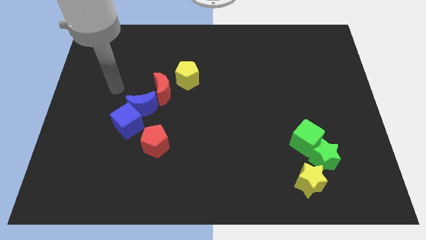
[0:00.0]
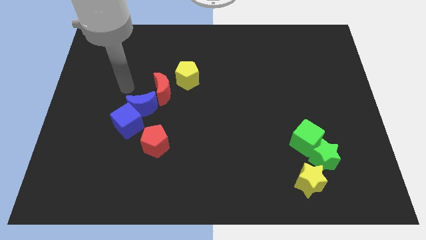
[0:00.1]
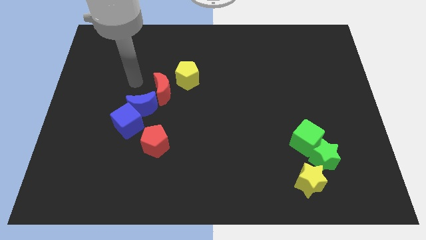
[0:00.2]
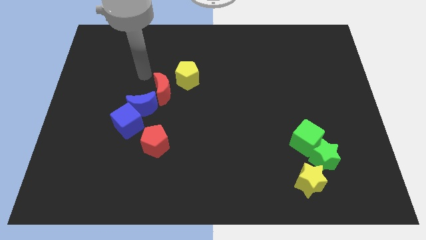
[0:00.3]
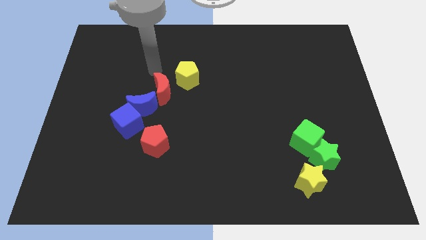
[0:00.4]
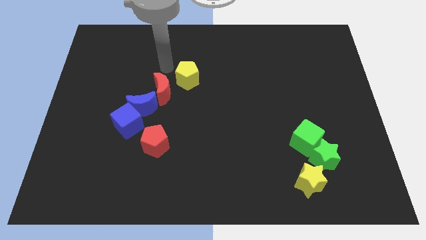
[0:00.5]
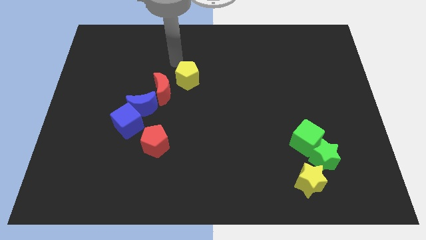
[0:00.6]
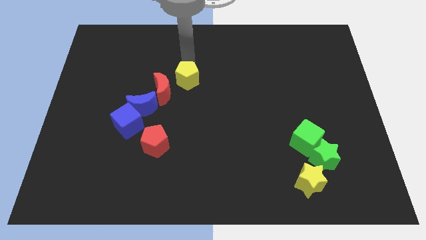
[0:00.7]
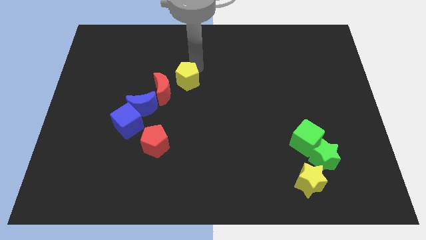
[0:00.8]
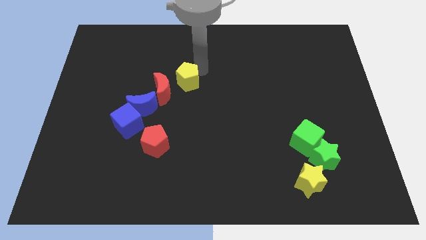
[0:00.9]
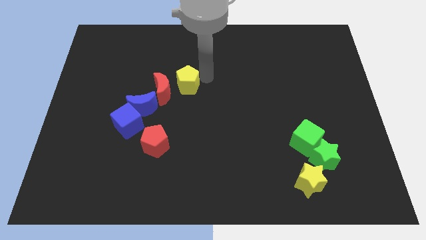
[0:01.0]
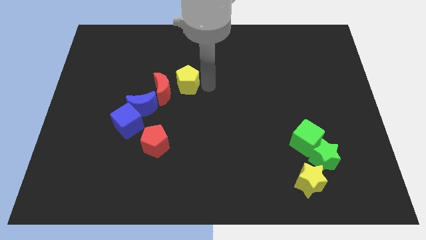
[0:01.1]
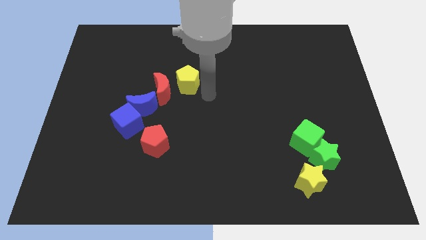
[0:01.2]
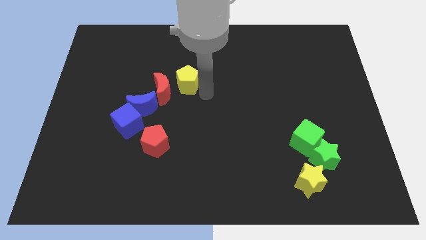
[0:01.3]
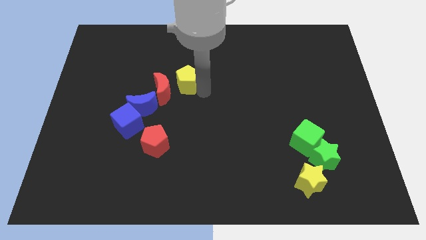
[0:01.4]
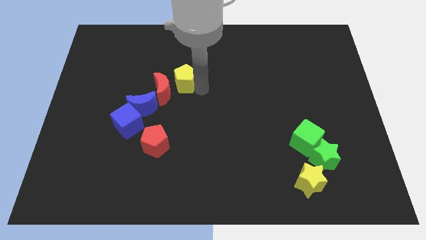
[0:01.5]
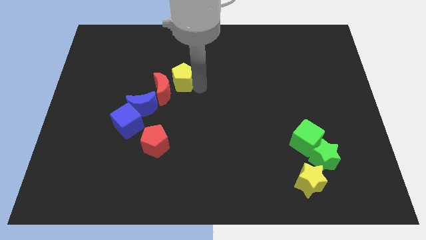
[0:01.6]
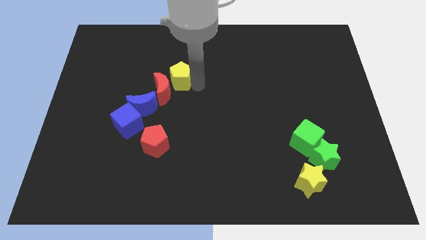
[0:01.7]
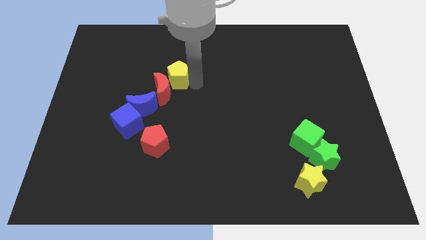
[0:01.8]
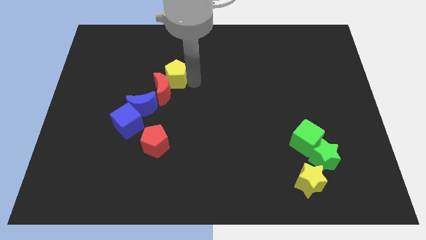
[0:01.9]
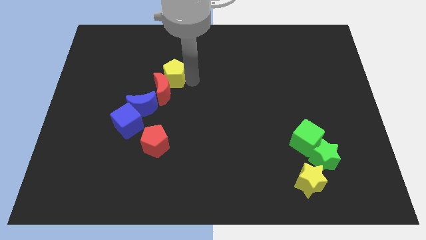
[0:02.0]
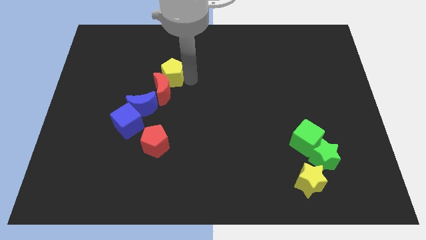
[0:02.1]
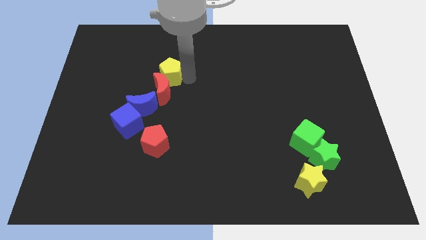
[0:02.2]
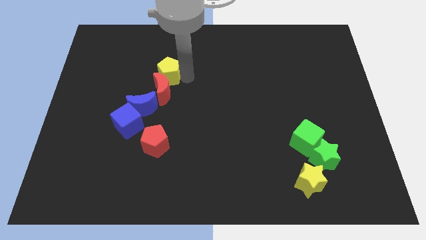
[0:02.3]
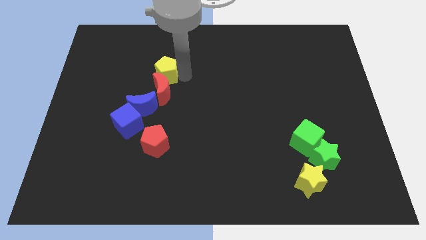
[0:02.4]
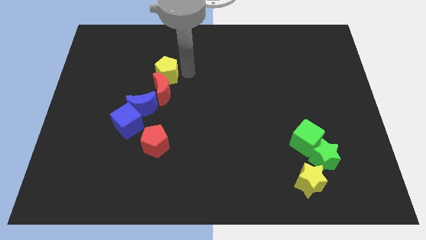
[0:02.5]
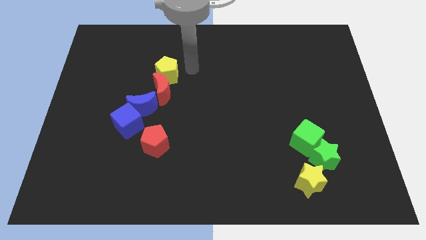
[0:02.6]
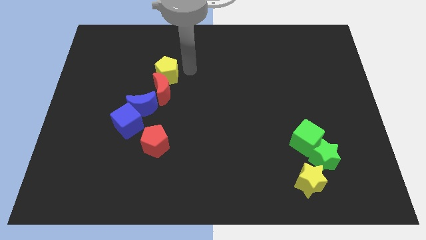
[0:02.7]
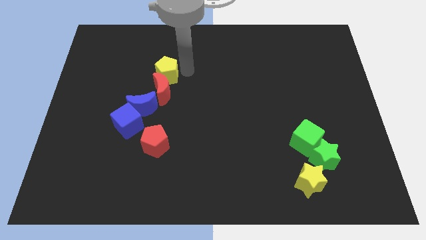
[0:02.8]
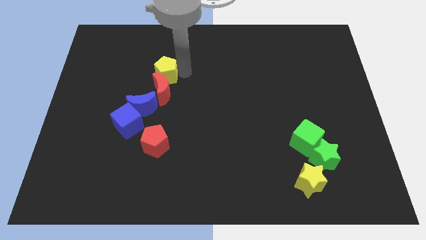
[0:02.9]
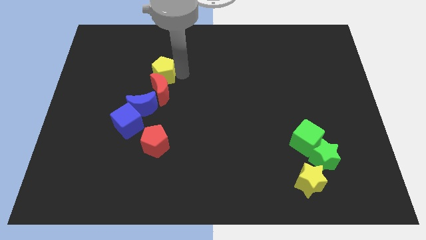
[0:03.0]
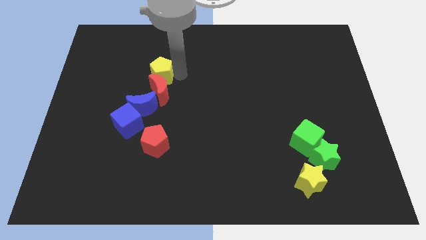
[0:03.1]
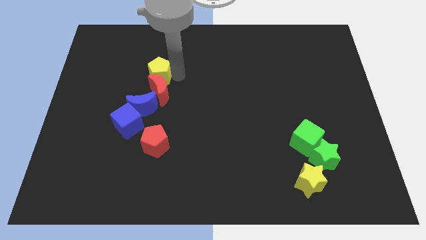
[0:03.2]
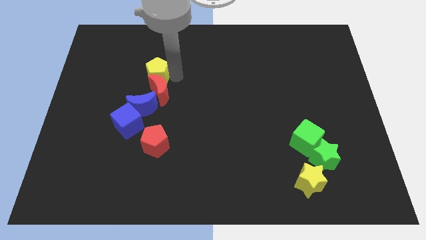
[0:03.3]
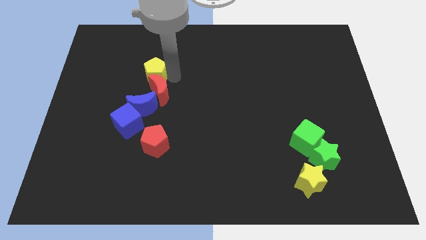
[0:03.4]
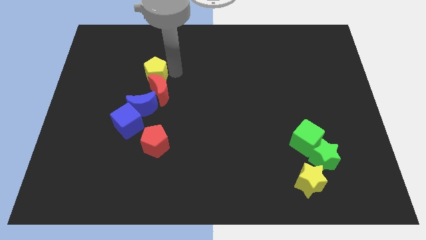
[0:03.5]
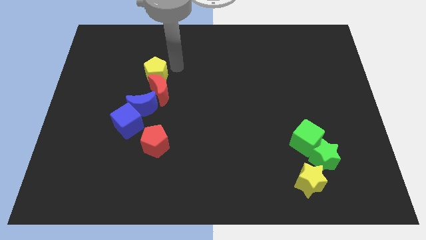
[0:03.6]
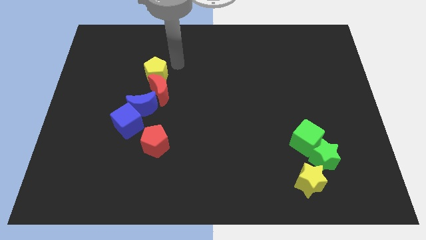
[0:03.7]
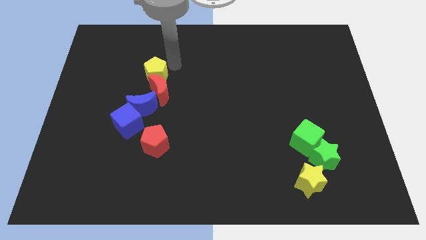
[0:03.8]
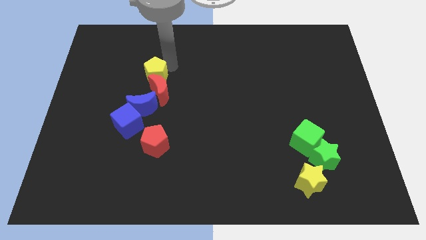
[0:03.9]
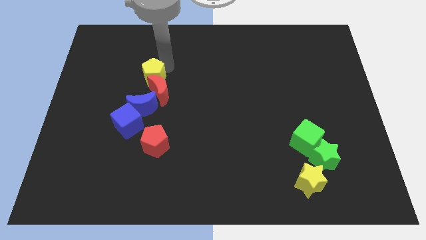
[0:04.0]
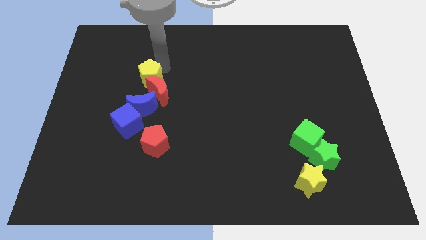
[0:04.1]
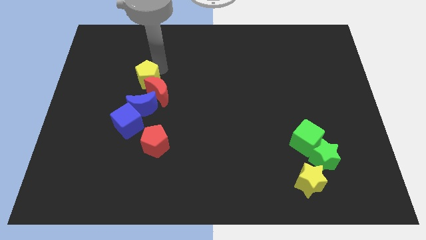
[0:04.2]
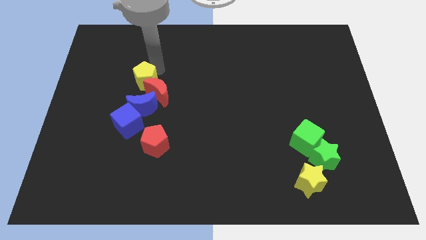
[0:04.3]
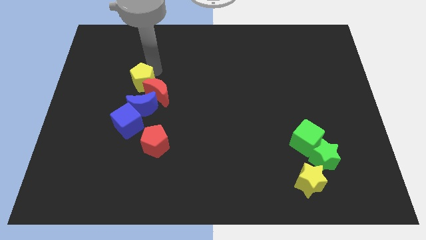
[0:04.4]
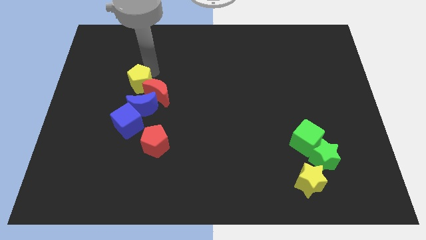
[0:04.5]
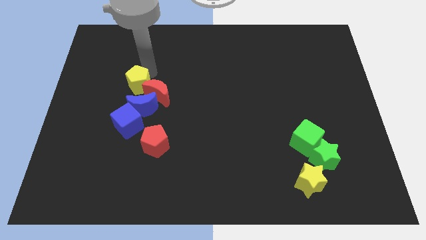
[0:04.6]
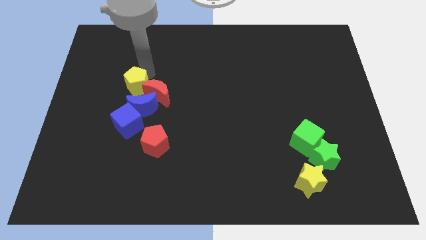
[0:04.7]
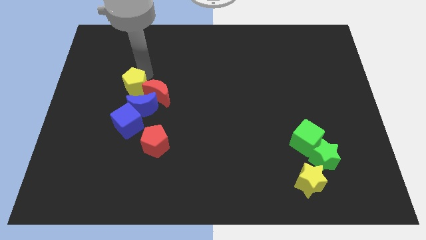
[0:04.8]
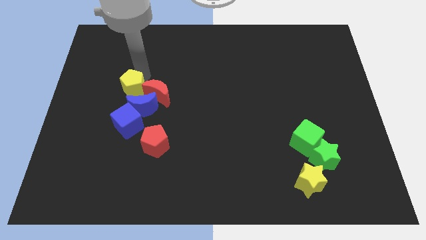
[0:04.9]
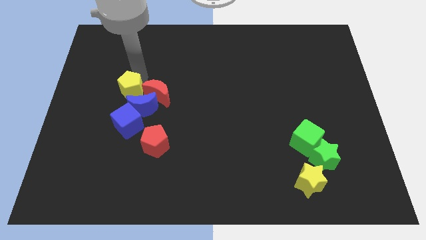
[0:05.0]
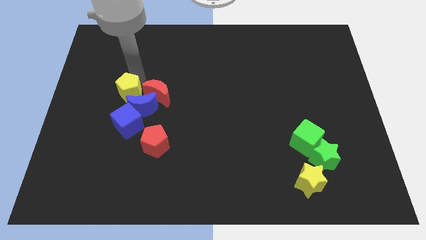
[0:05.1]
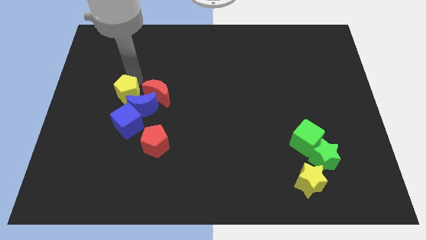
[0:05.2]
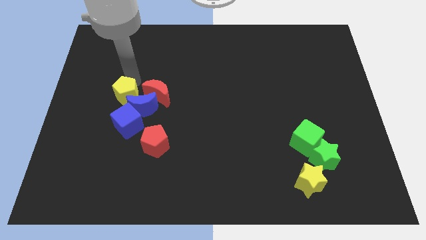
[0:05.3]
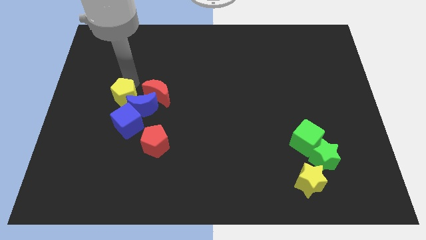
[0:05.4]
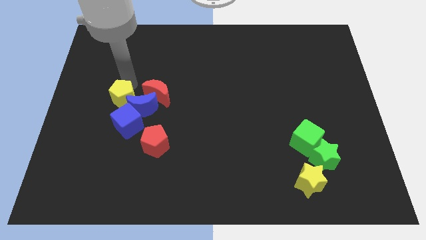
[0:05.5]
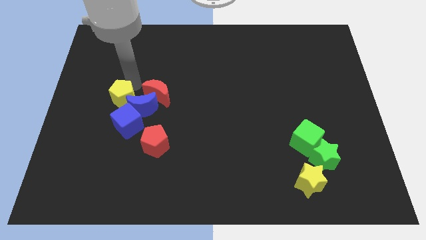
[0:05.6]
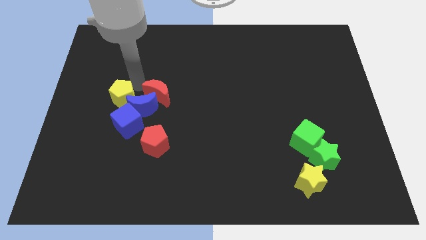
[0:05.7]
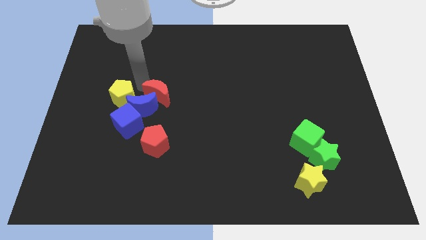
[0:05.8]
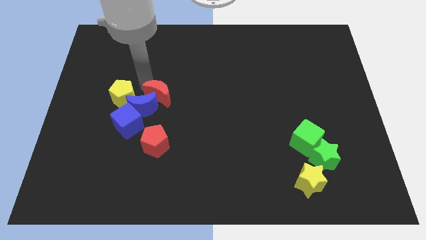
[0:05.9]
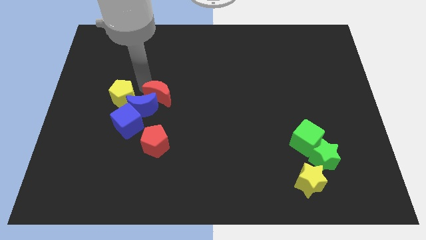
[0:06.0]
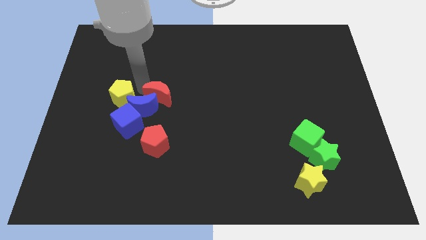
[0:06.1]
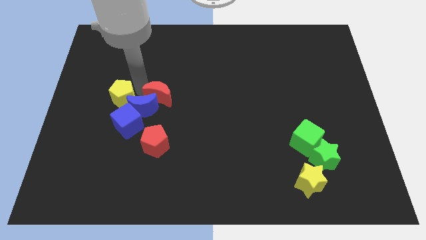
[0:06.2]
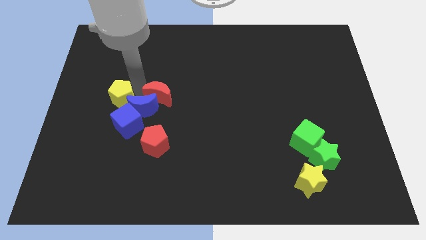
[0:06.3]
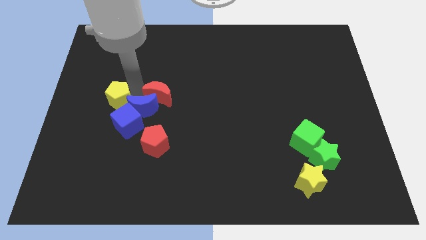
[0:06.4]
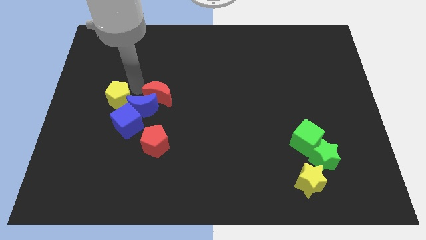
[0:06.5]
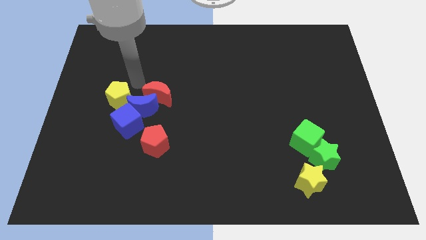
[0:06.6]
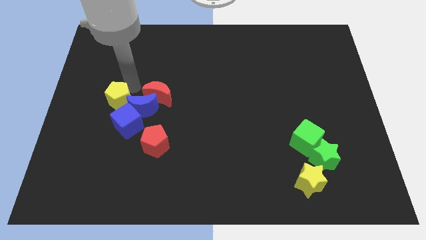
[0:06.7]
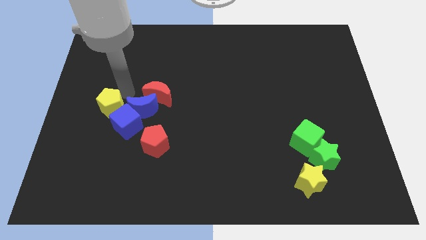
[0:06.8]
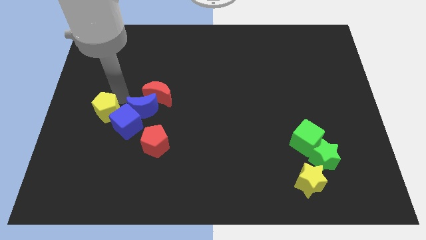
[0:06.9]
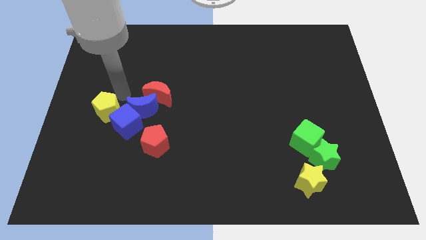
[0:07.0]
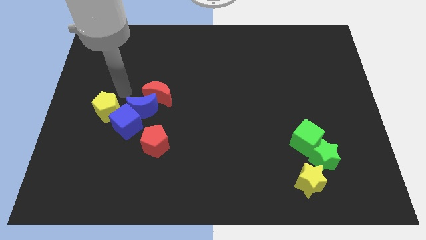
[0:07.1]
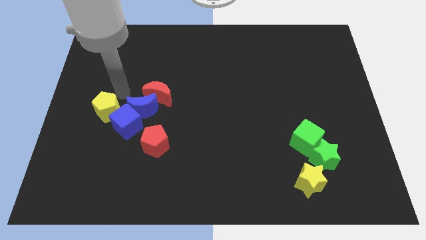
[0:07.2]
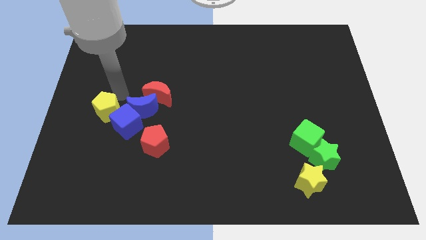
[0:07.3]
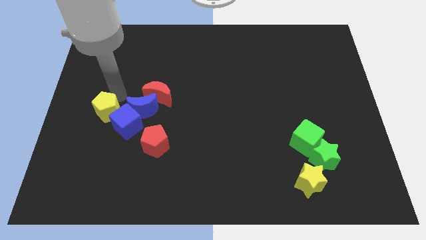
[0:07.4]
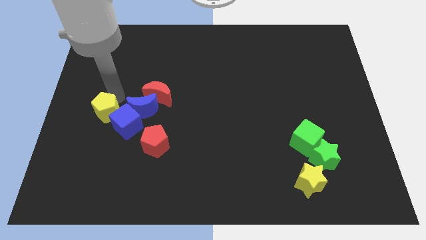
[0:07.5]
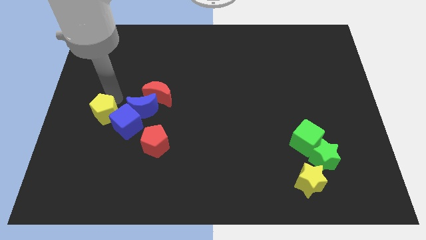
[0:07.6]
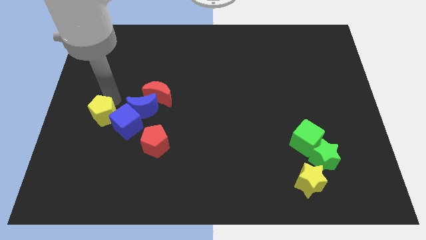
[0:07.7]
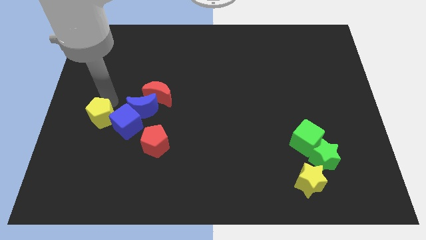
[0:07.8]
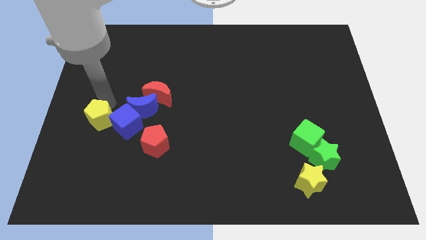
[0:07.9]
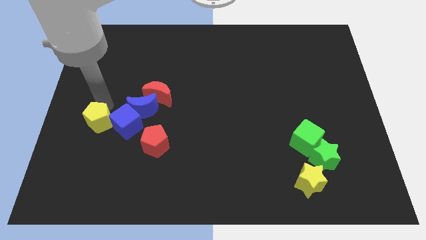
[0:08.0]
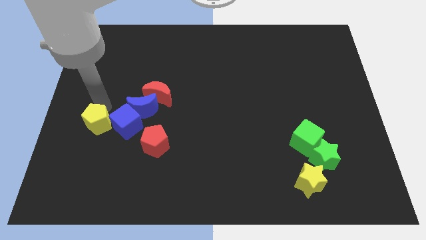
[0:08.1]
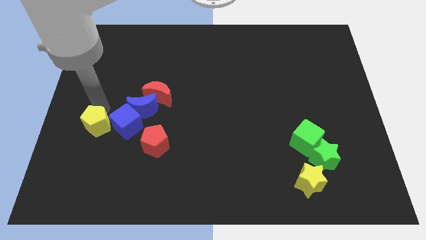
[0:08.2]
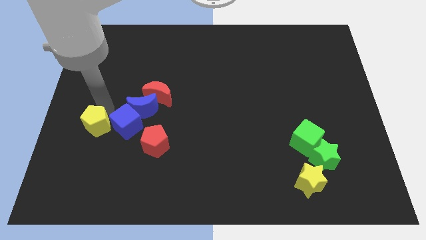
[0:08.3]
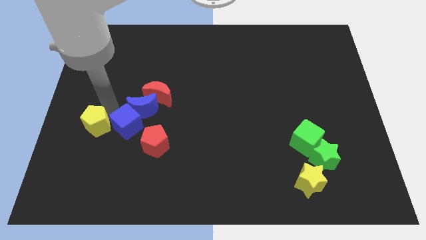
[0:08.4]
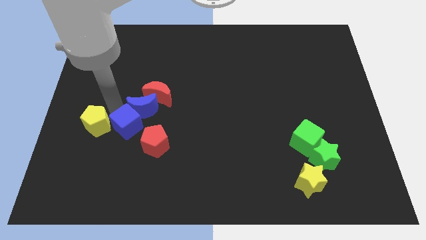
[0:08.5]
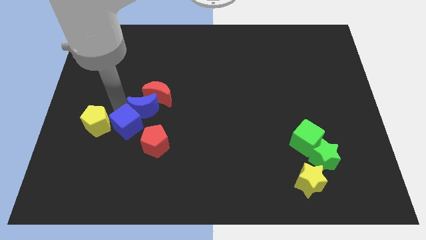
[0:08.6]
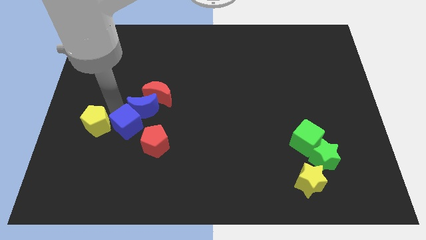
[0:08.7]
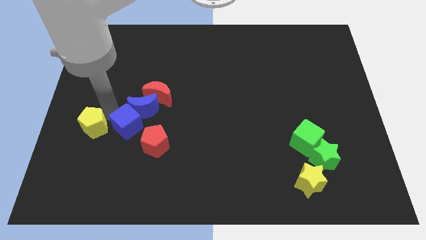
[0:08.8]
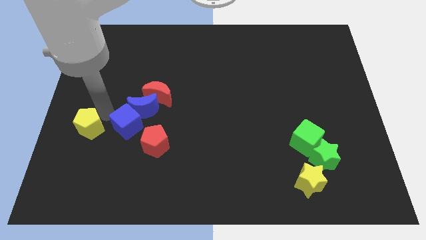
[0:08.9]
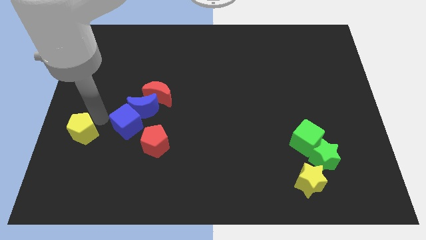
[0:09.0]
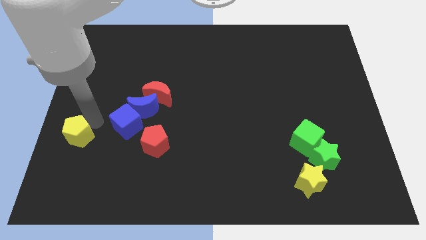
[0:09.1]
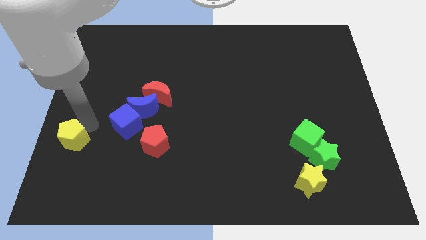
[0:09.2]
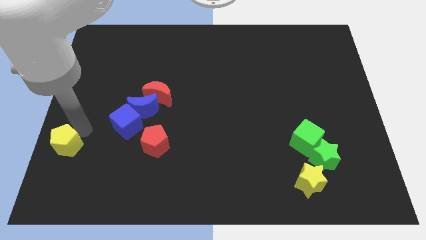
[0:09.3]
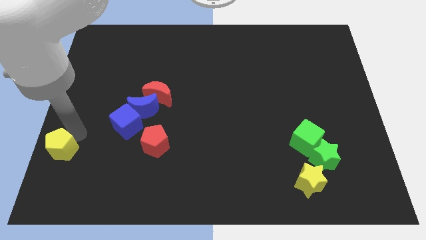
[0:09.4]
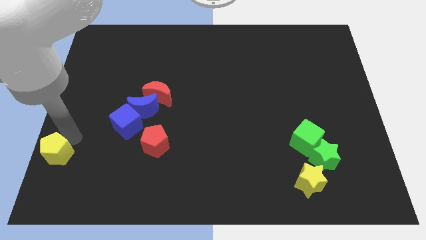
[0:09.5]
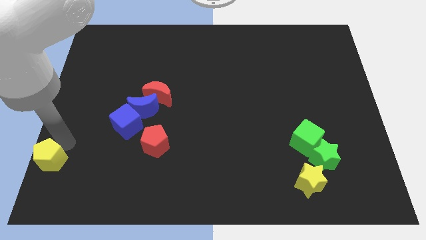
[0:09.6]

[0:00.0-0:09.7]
slide the yellow pentagon to the bottom left corner
